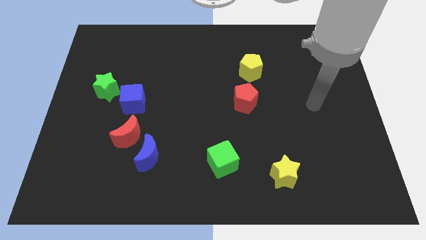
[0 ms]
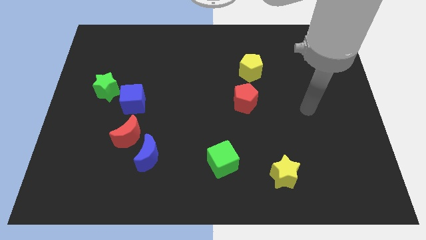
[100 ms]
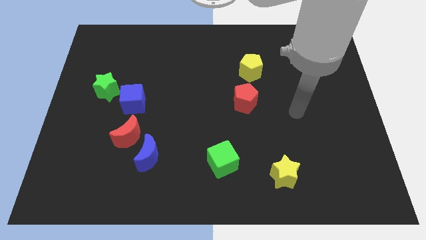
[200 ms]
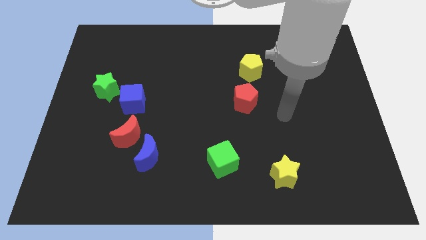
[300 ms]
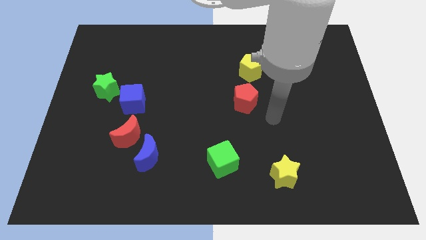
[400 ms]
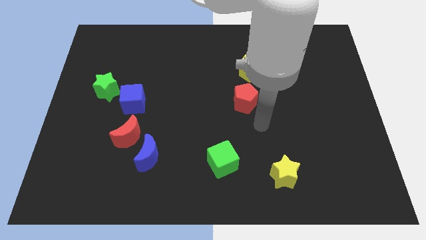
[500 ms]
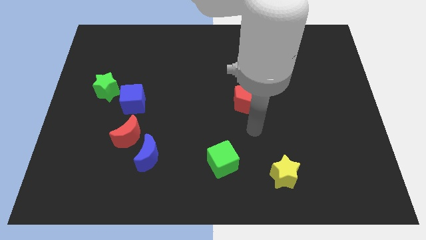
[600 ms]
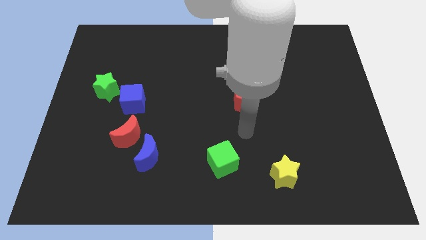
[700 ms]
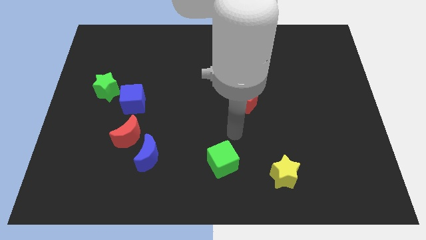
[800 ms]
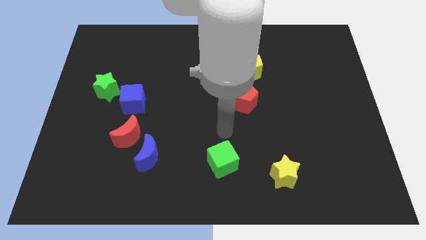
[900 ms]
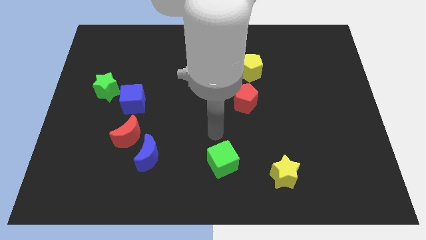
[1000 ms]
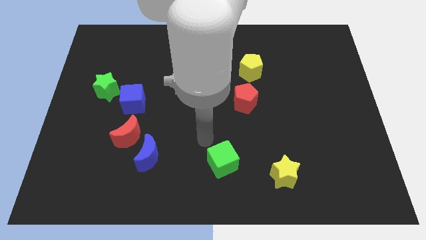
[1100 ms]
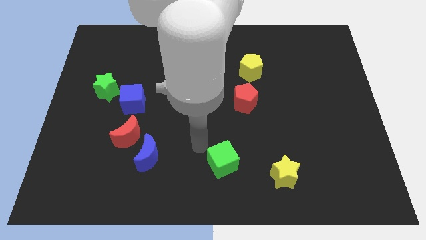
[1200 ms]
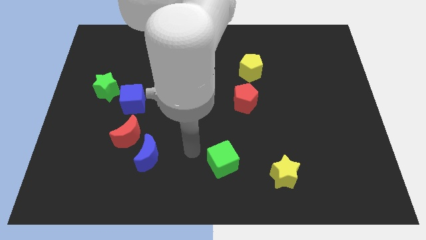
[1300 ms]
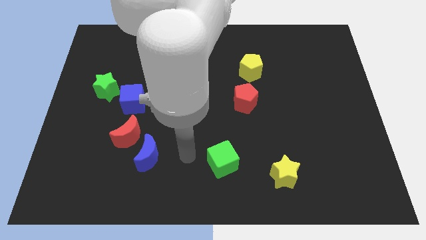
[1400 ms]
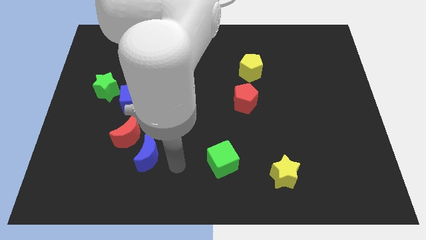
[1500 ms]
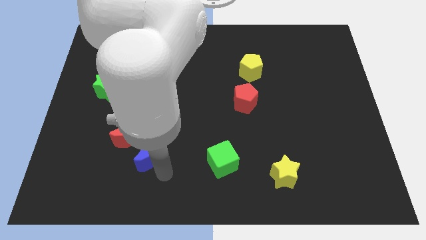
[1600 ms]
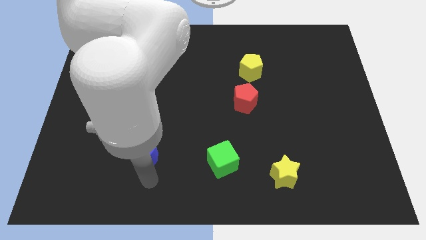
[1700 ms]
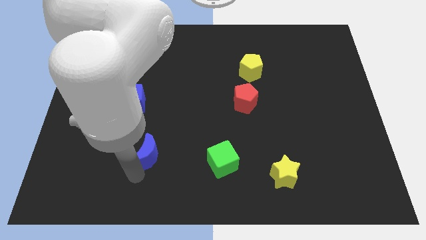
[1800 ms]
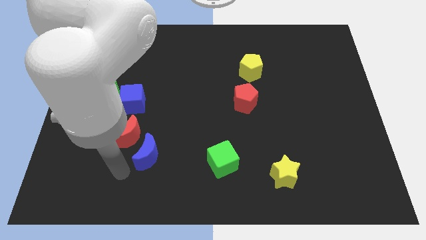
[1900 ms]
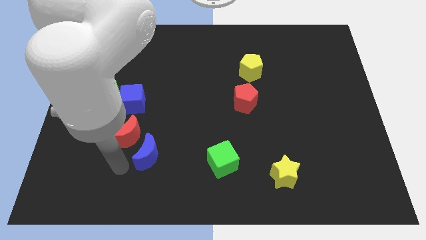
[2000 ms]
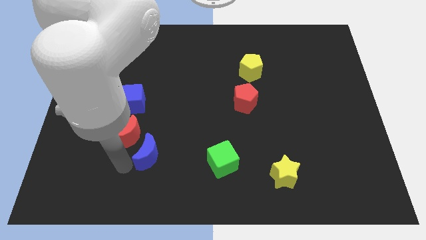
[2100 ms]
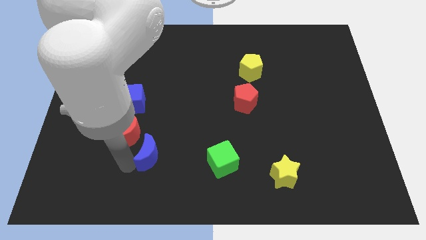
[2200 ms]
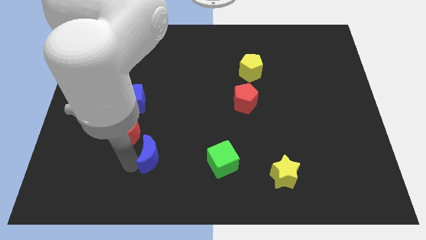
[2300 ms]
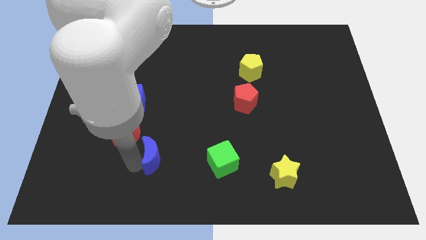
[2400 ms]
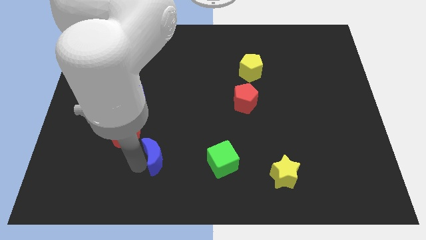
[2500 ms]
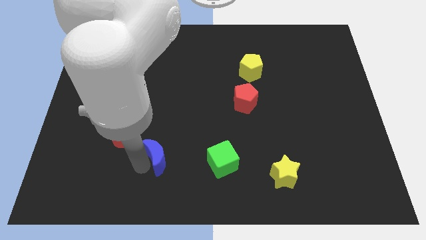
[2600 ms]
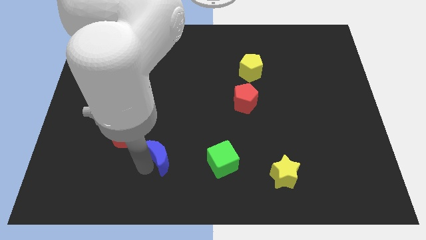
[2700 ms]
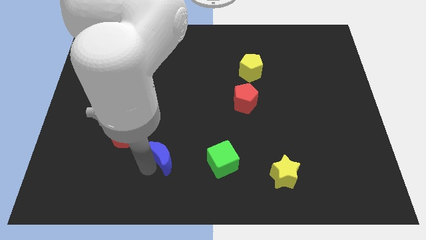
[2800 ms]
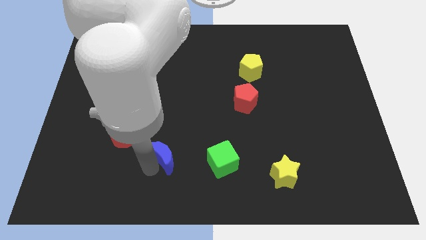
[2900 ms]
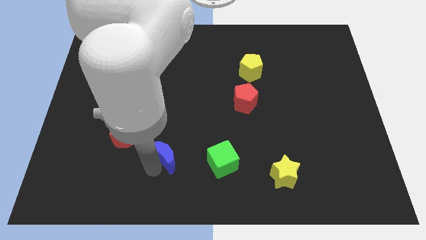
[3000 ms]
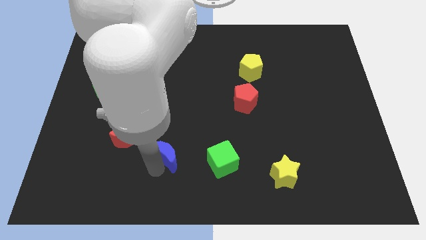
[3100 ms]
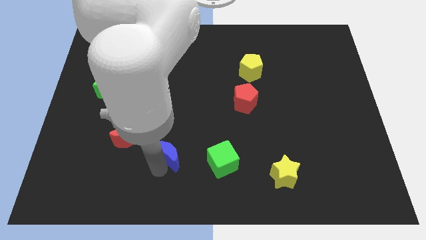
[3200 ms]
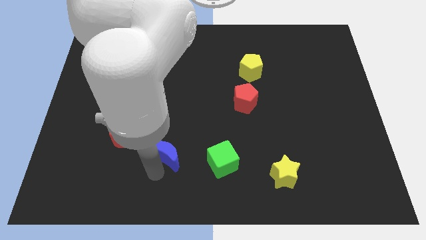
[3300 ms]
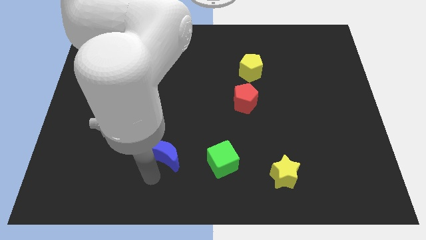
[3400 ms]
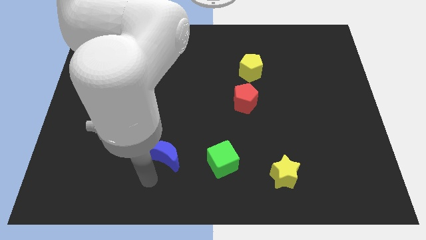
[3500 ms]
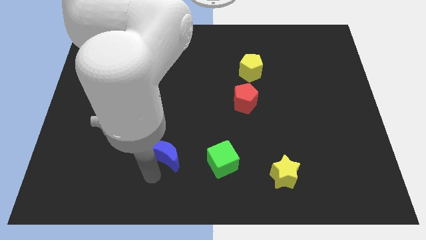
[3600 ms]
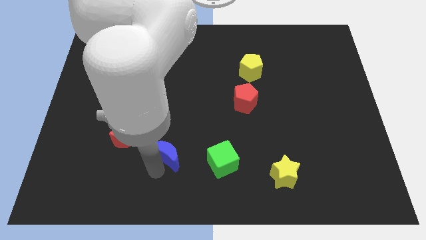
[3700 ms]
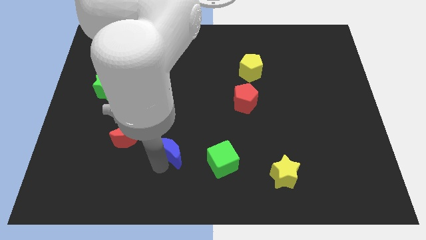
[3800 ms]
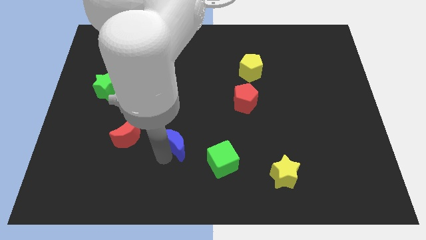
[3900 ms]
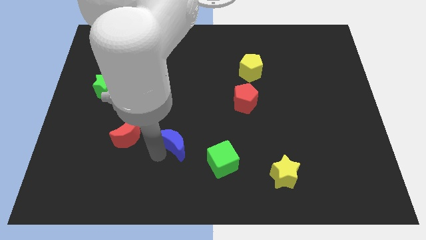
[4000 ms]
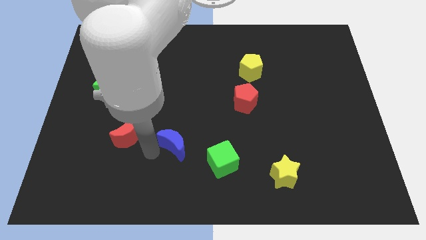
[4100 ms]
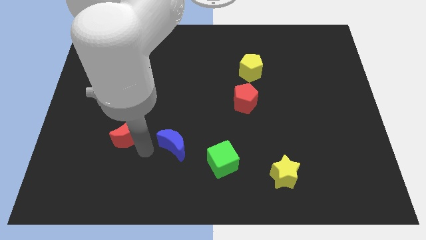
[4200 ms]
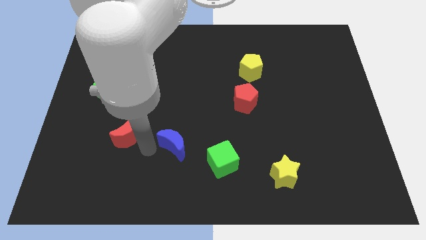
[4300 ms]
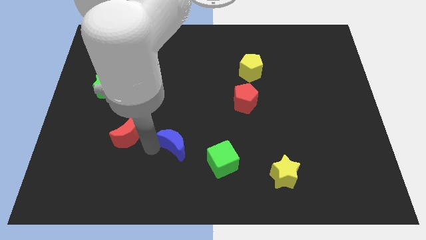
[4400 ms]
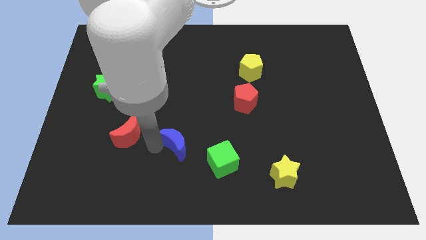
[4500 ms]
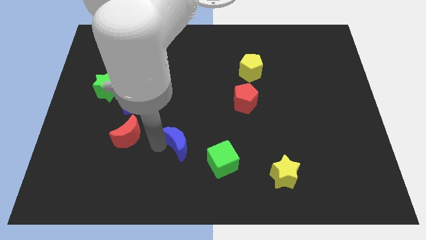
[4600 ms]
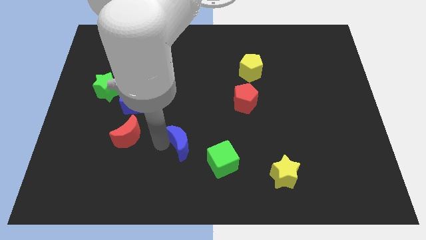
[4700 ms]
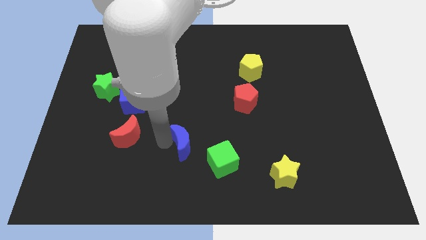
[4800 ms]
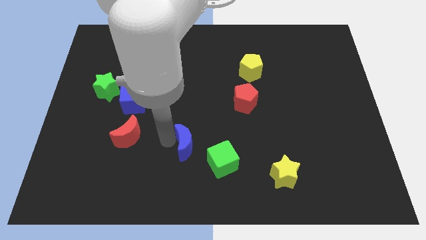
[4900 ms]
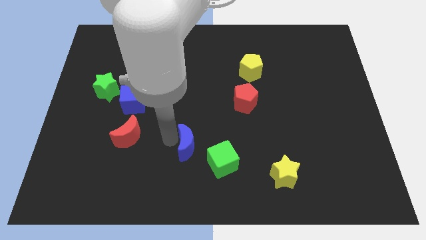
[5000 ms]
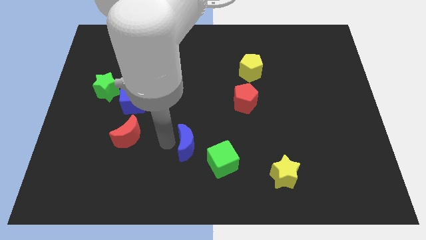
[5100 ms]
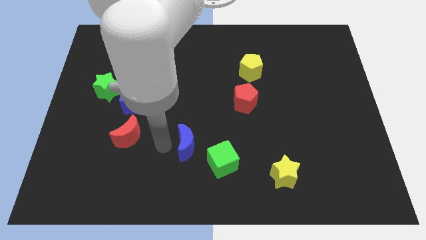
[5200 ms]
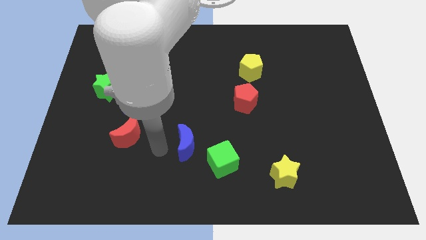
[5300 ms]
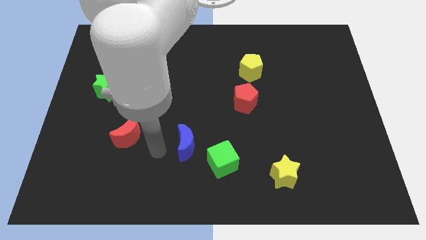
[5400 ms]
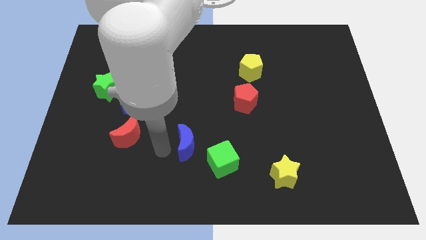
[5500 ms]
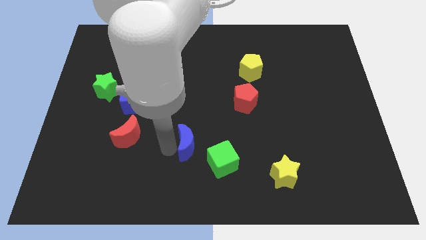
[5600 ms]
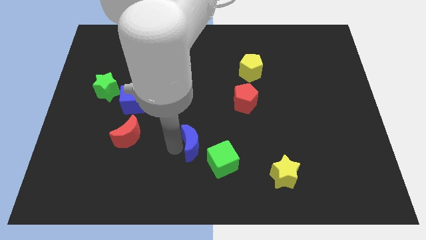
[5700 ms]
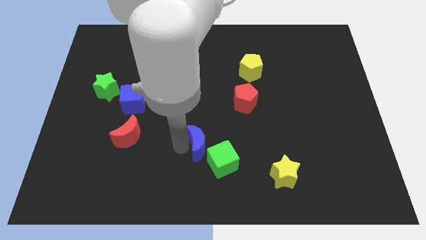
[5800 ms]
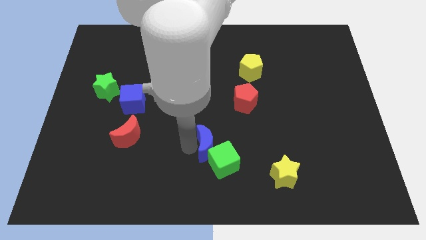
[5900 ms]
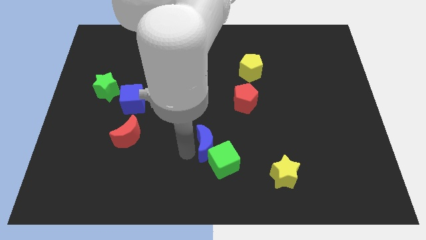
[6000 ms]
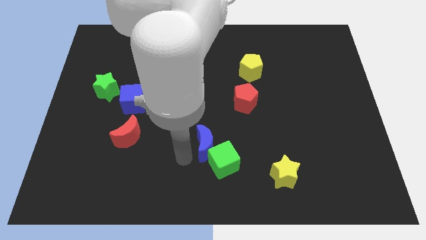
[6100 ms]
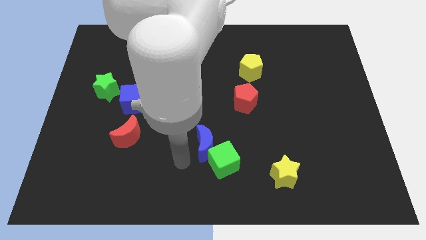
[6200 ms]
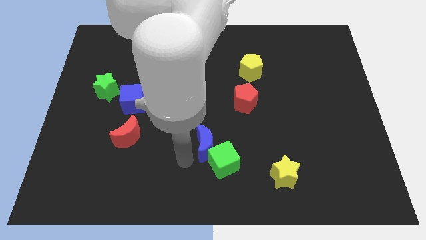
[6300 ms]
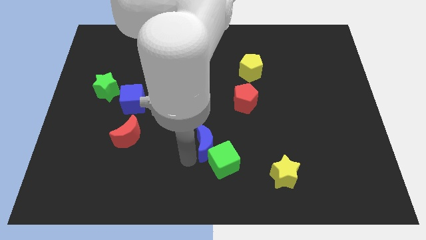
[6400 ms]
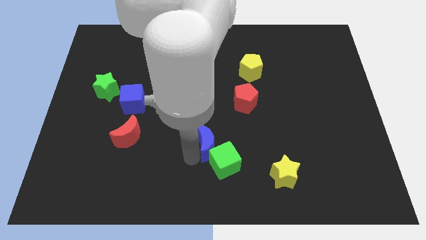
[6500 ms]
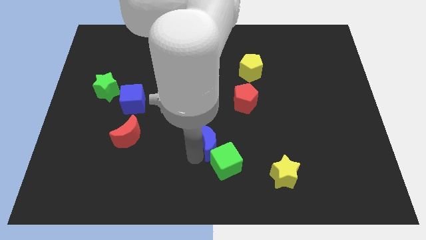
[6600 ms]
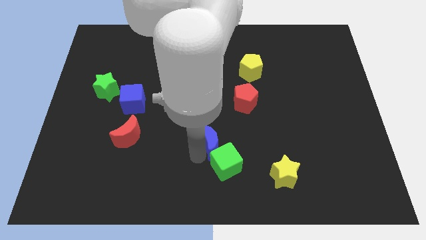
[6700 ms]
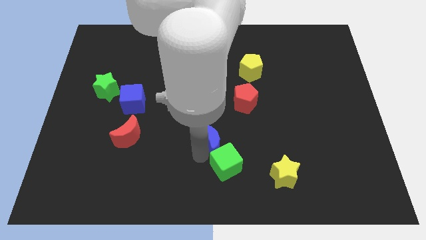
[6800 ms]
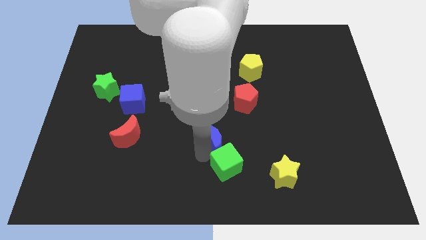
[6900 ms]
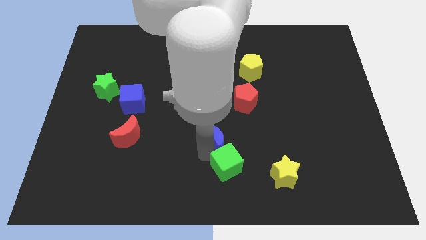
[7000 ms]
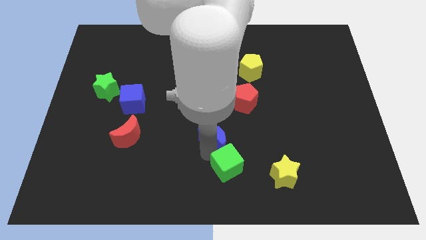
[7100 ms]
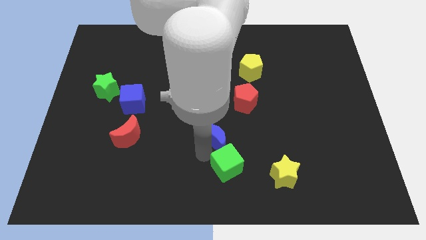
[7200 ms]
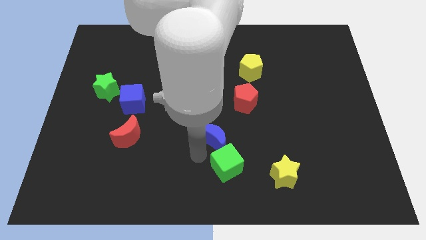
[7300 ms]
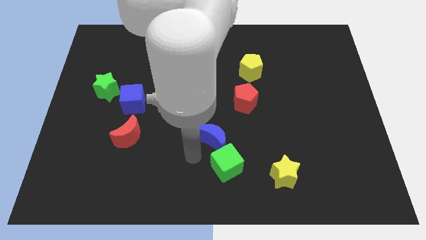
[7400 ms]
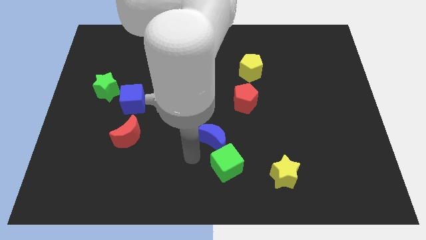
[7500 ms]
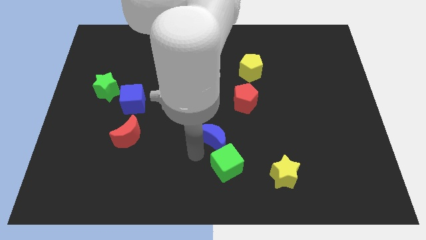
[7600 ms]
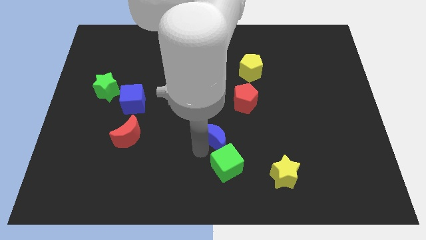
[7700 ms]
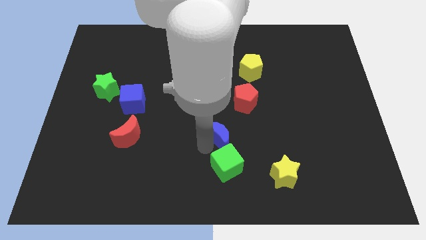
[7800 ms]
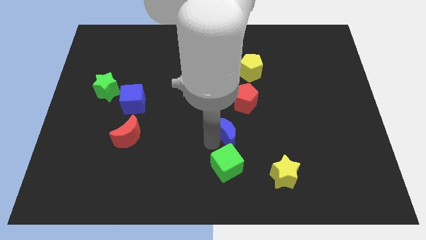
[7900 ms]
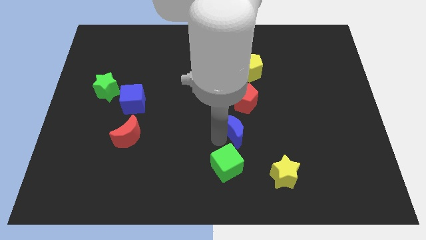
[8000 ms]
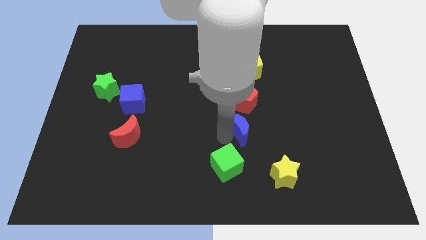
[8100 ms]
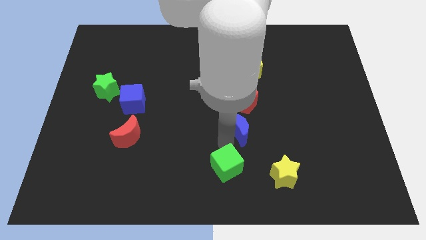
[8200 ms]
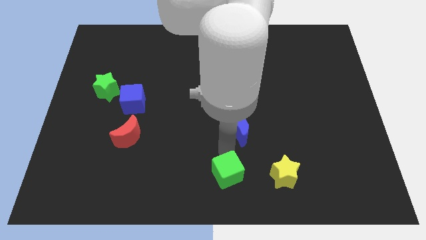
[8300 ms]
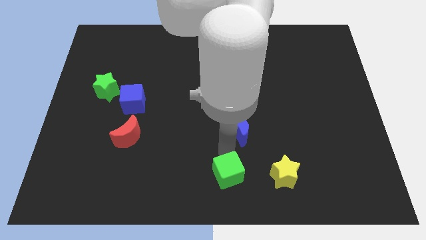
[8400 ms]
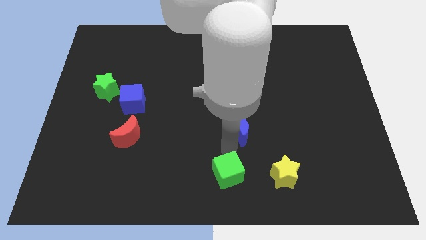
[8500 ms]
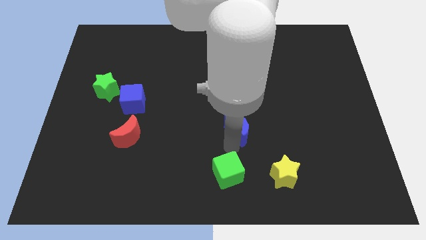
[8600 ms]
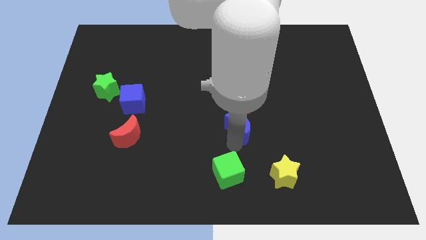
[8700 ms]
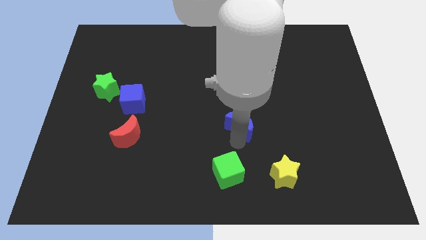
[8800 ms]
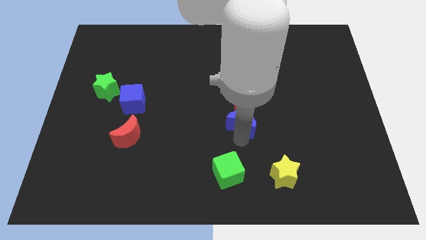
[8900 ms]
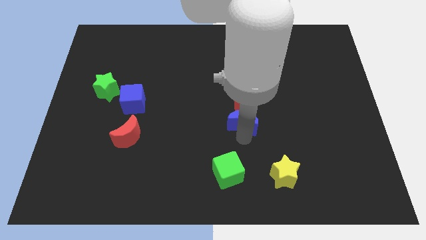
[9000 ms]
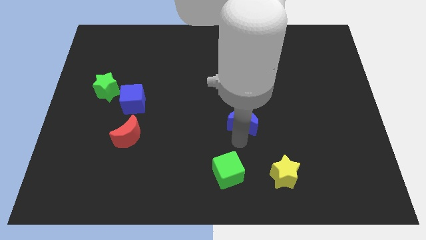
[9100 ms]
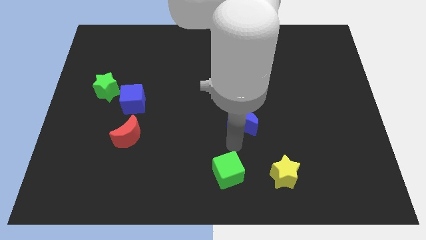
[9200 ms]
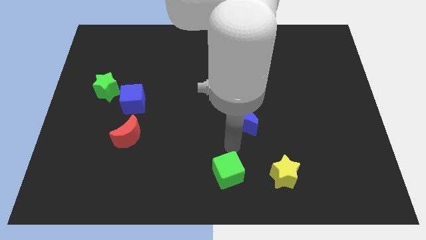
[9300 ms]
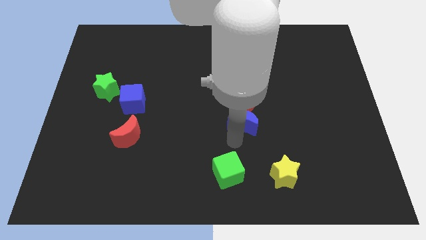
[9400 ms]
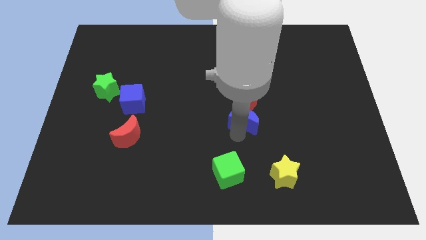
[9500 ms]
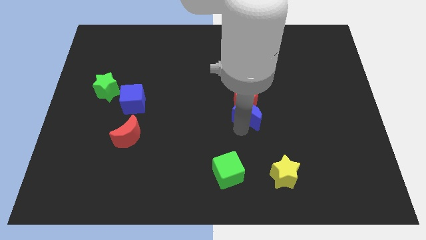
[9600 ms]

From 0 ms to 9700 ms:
slide the blue moon to the bottom of the yellow pentagon
